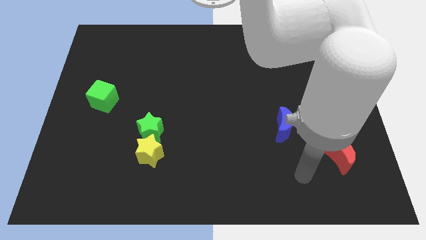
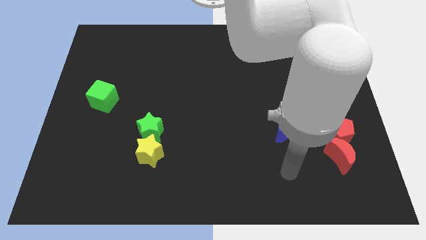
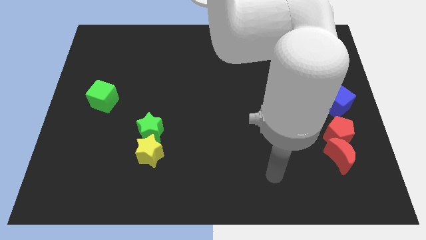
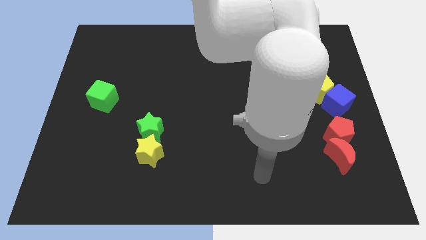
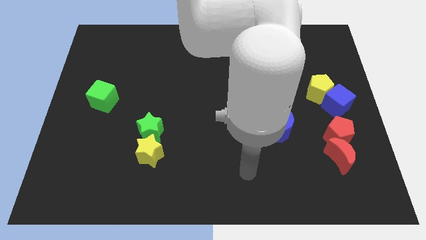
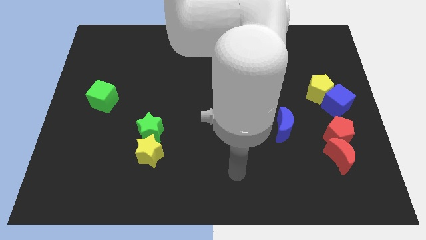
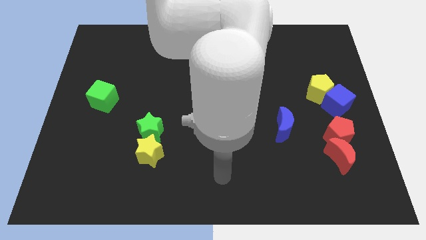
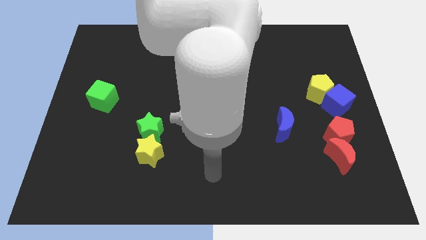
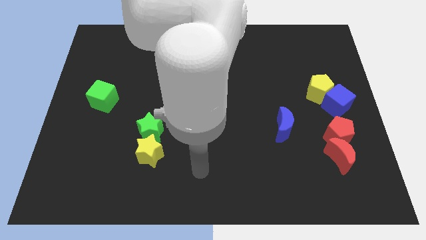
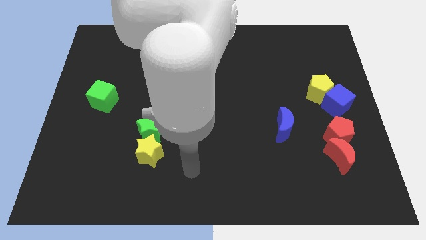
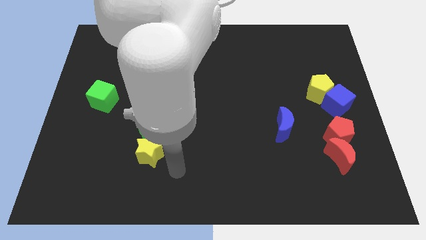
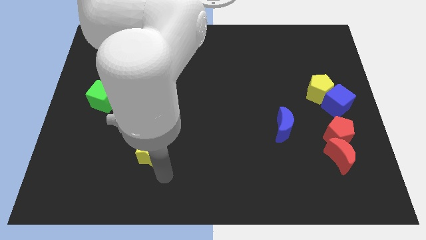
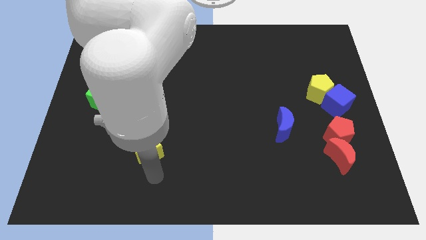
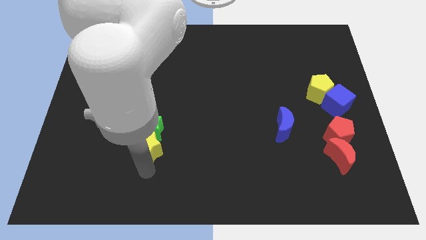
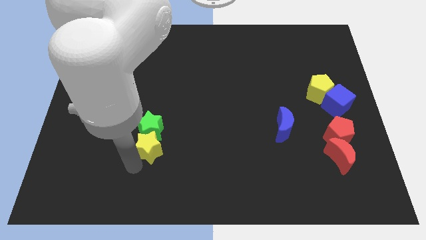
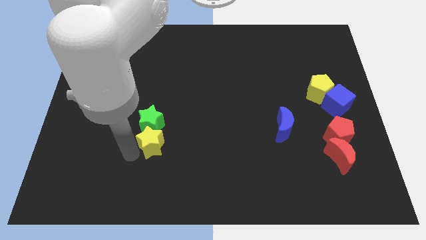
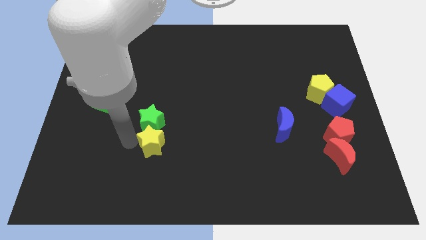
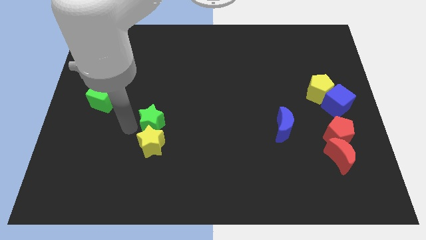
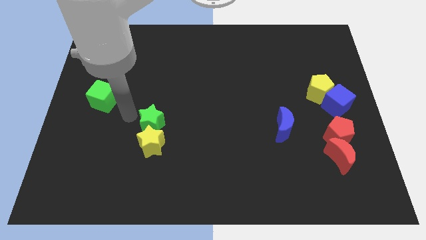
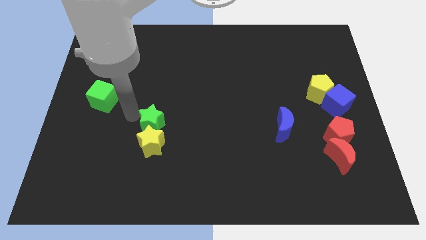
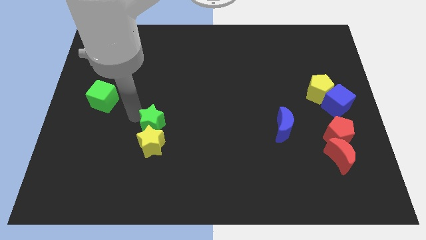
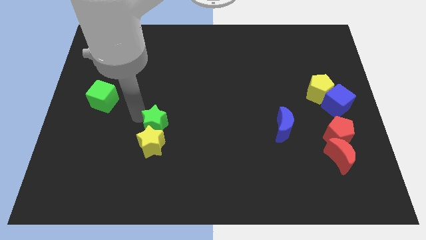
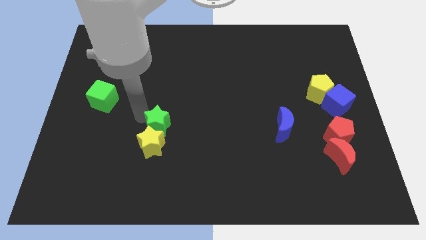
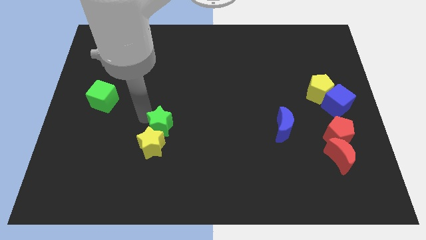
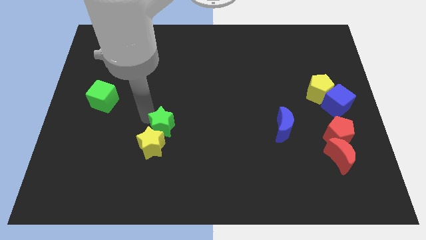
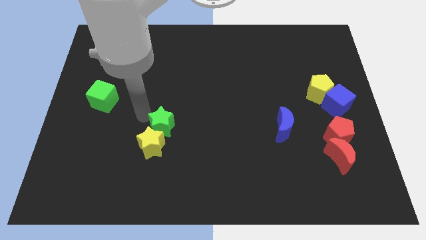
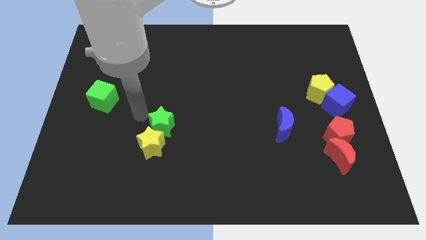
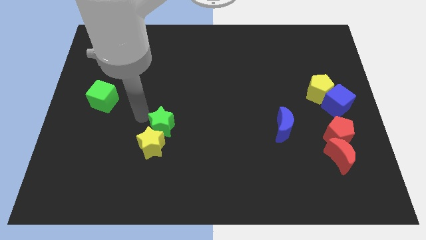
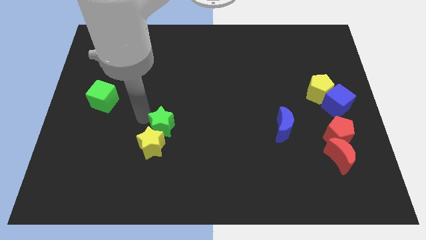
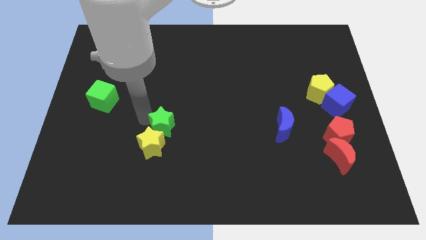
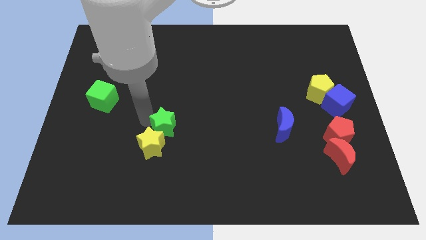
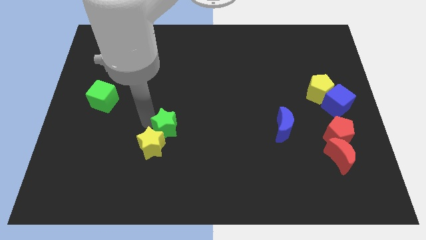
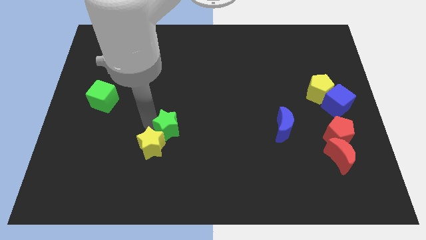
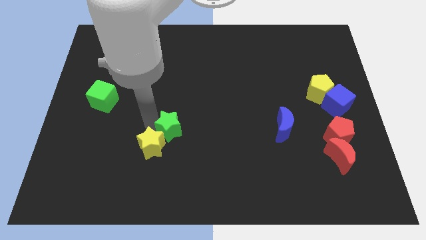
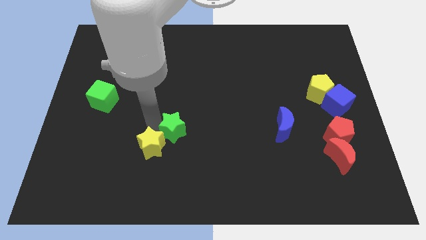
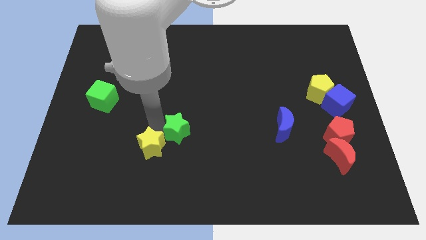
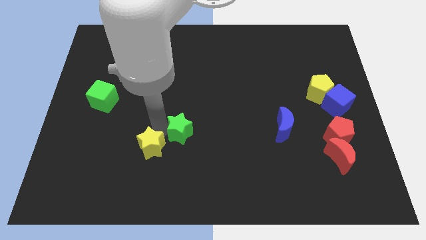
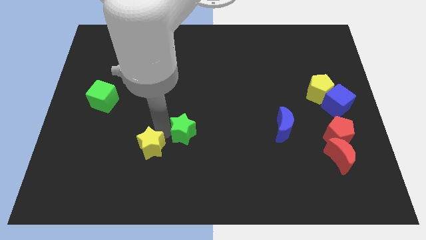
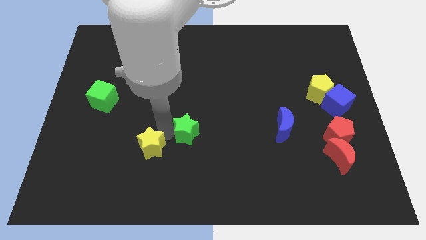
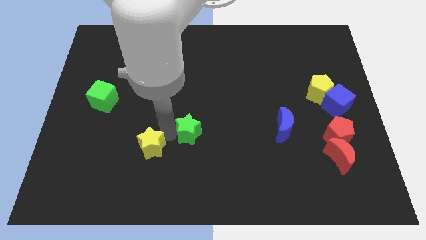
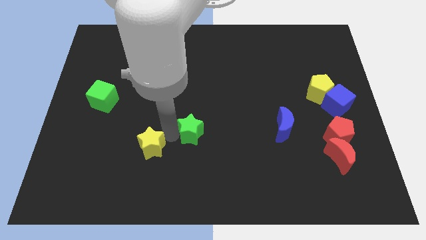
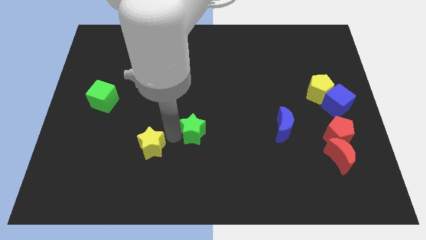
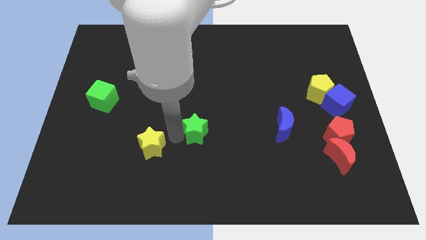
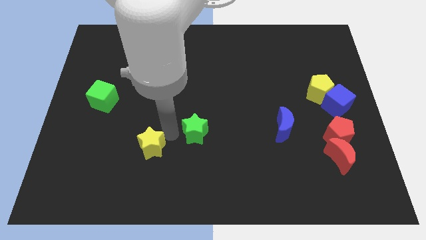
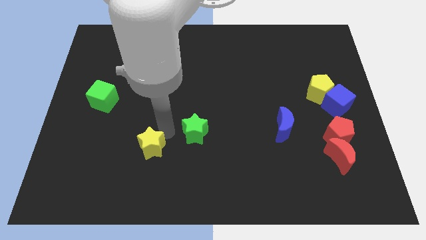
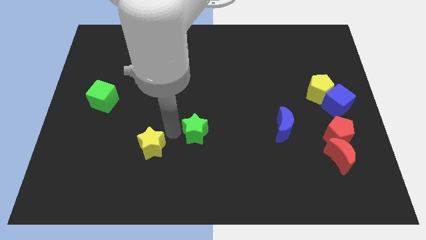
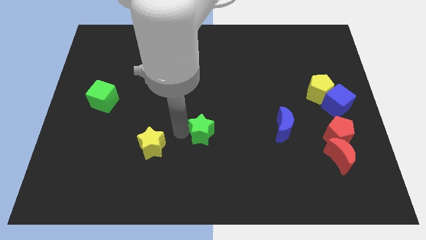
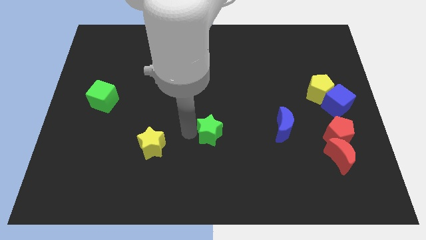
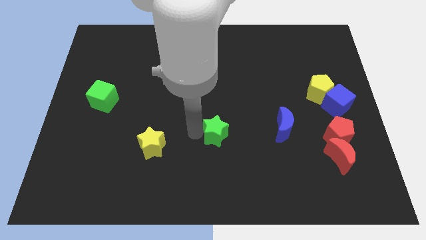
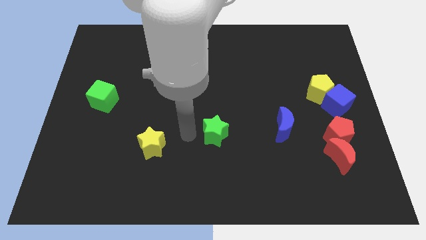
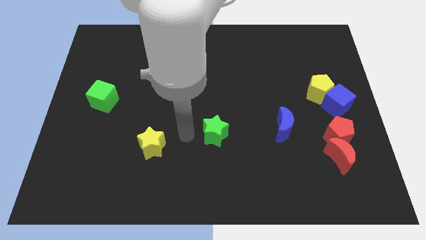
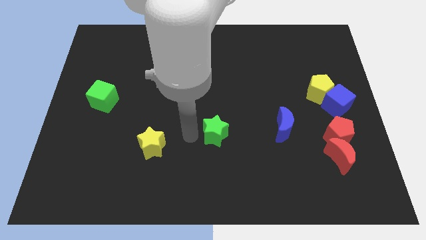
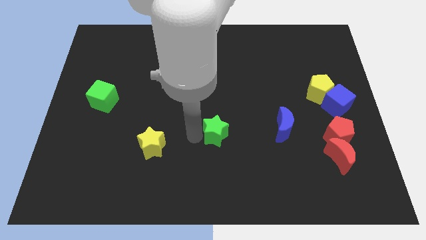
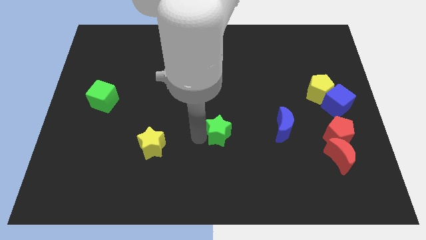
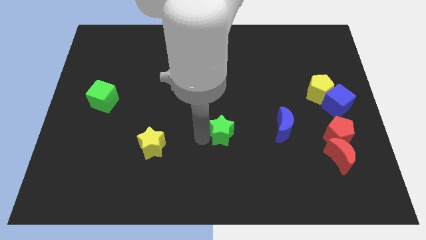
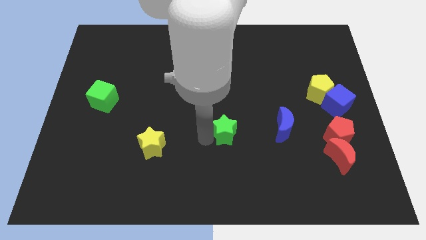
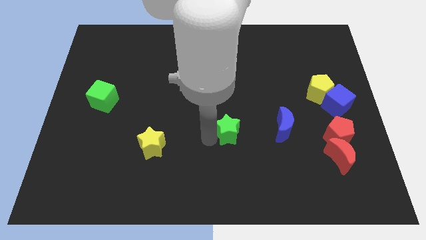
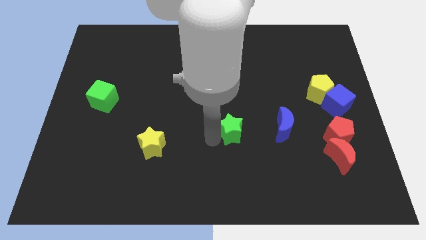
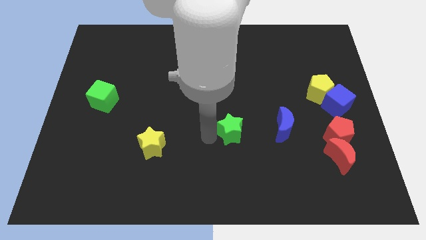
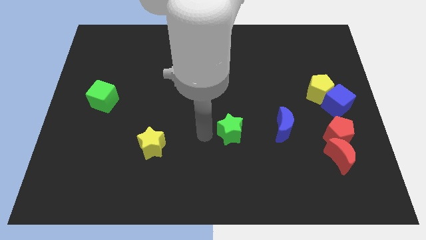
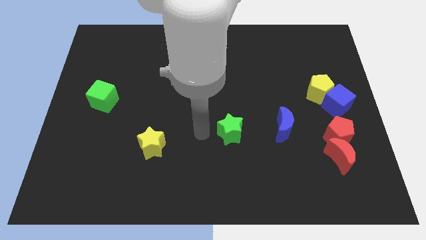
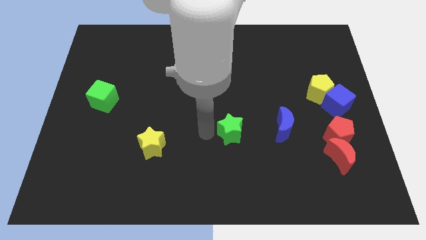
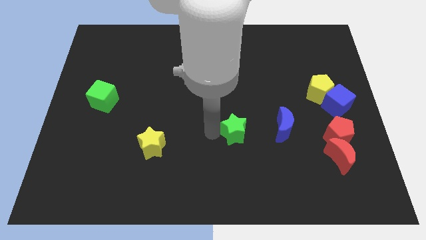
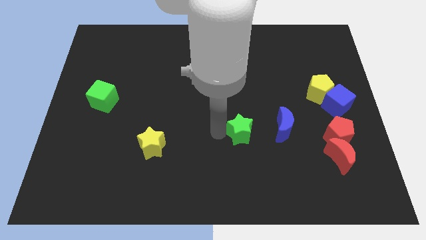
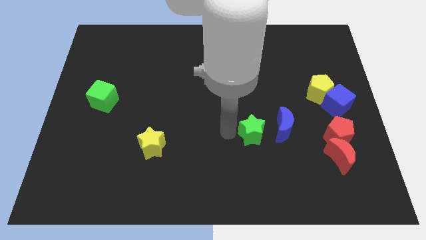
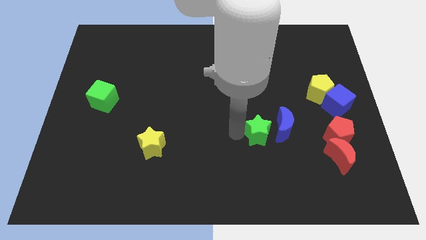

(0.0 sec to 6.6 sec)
move the green star to the blue moon

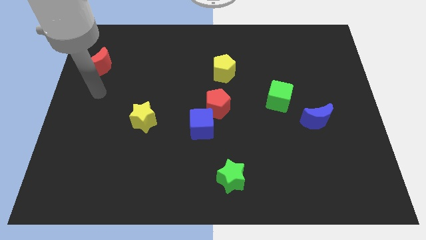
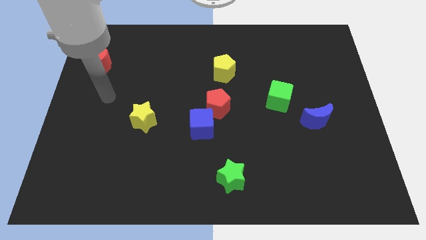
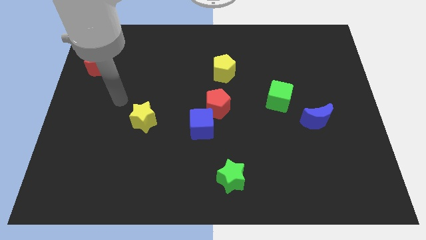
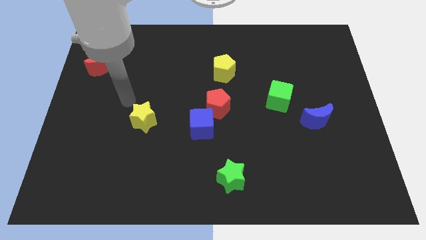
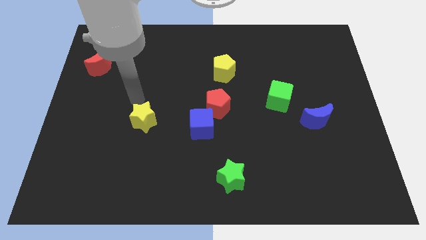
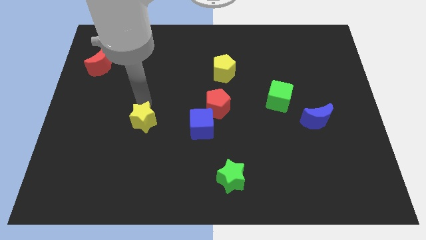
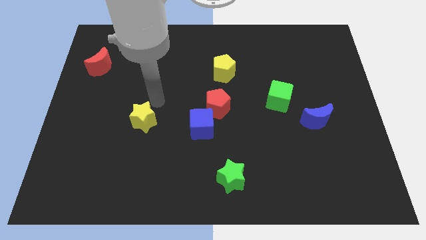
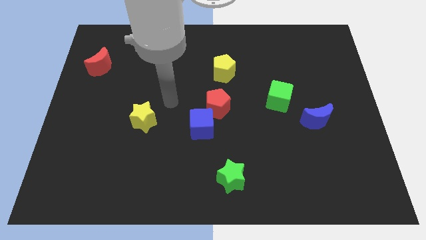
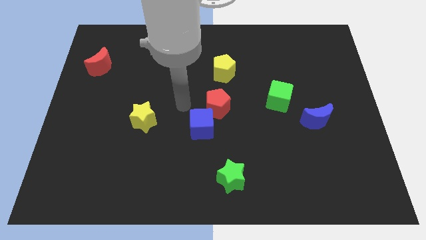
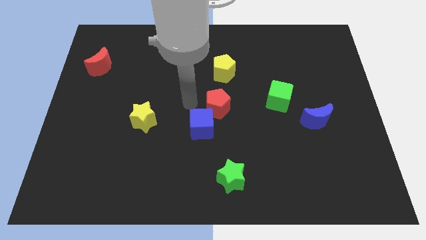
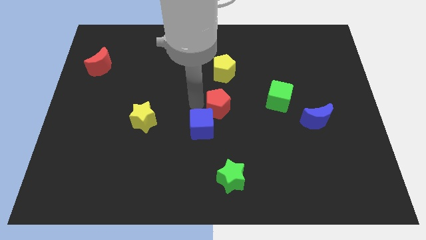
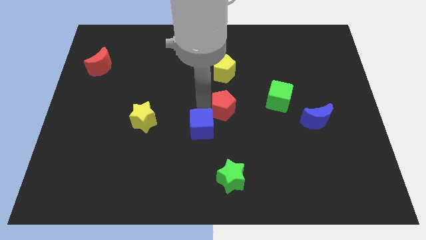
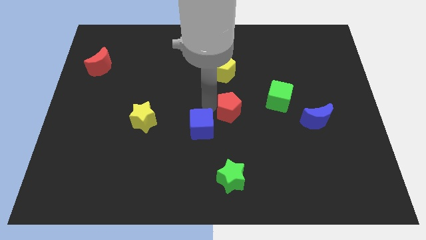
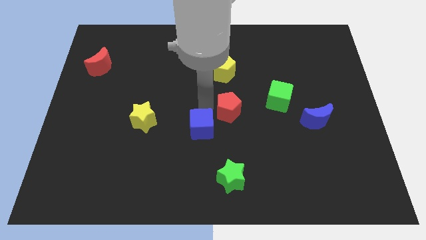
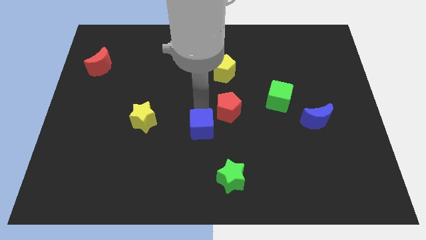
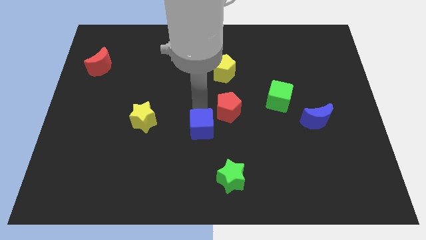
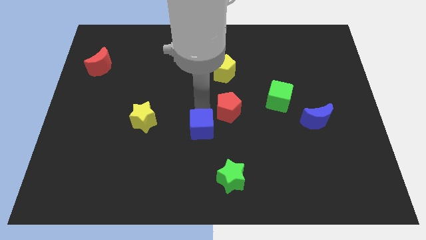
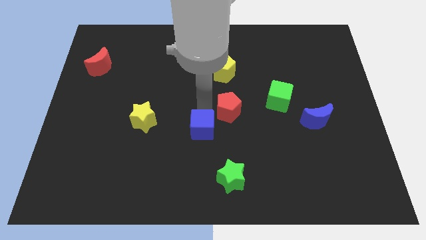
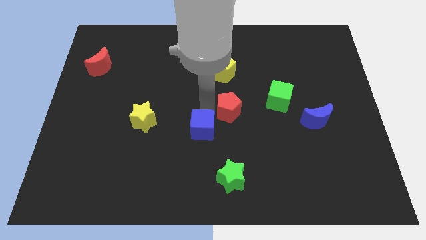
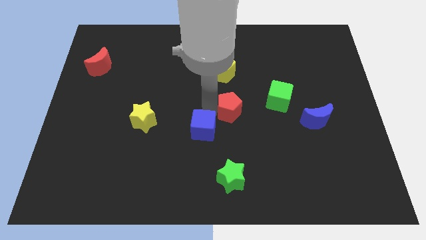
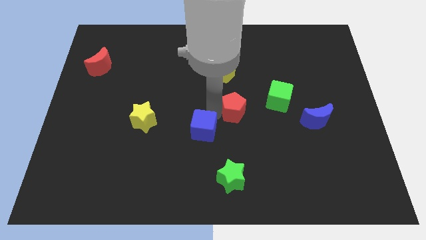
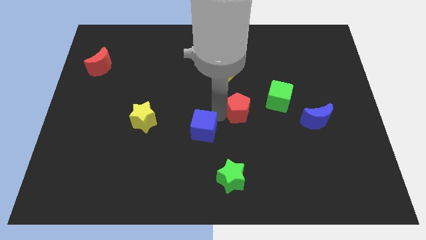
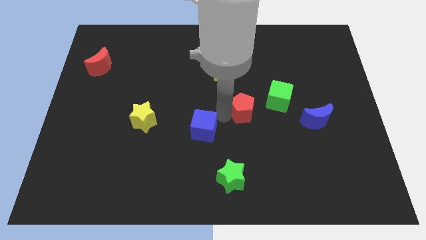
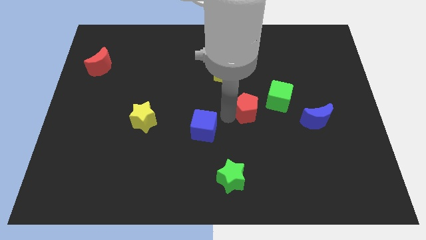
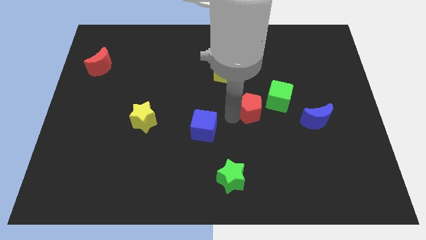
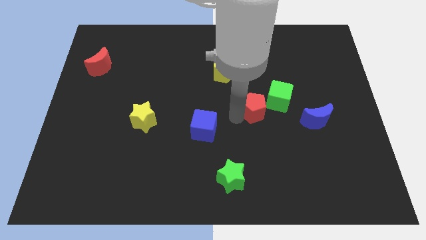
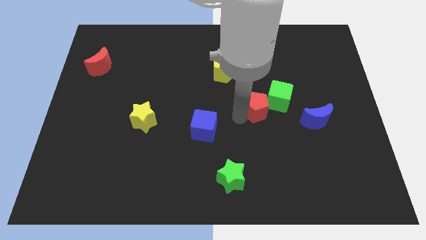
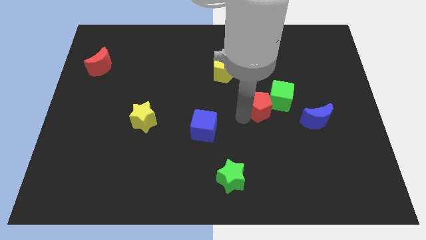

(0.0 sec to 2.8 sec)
move the red pentagon close to the green cube
